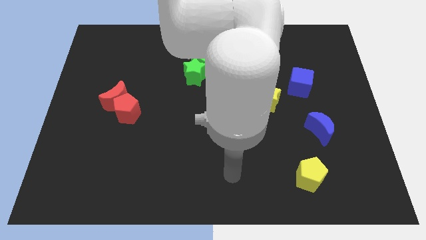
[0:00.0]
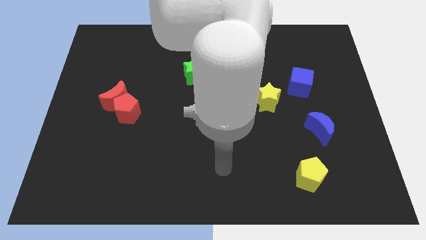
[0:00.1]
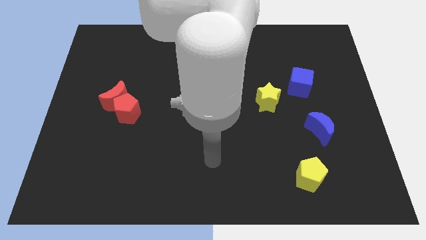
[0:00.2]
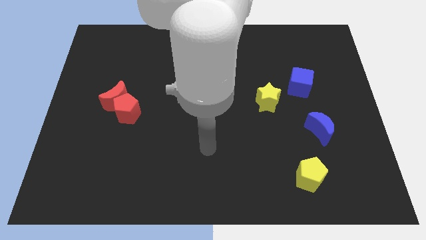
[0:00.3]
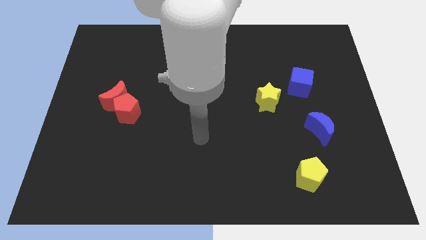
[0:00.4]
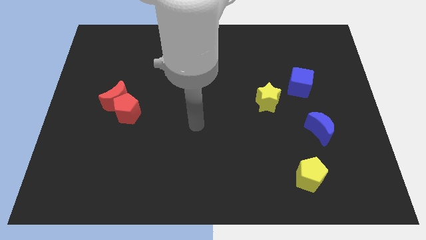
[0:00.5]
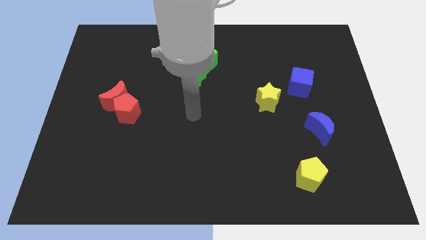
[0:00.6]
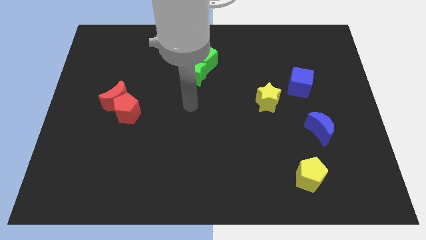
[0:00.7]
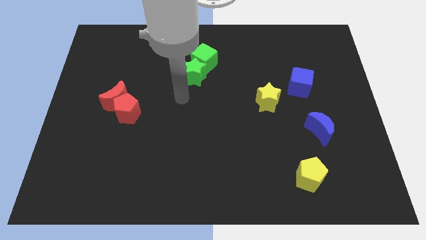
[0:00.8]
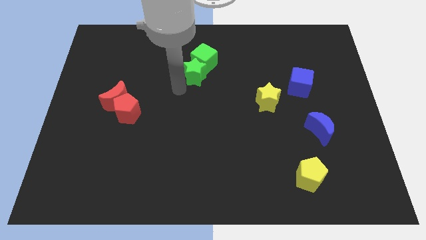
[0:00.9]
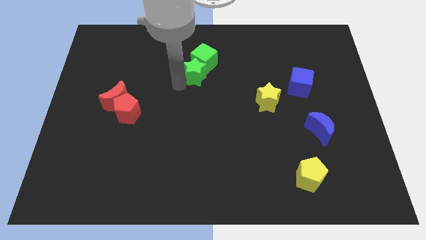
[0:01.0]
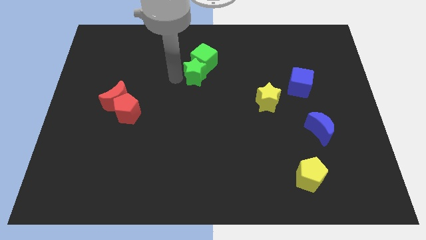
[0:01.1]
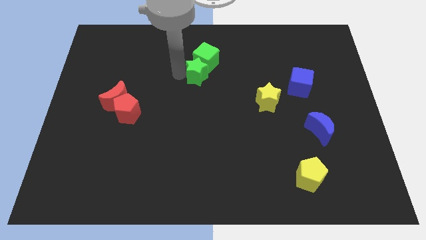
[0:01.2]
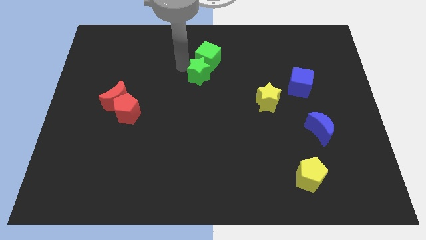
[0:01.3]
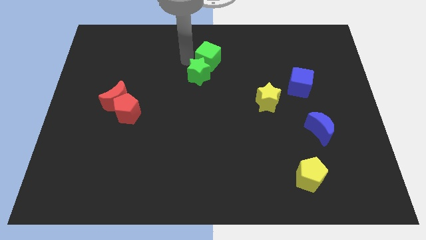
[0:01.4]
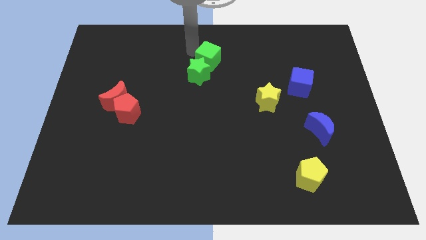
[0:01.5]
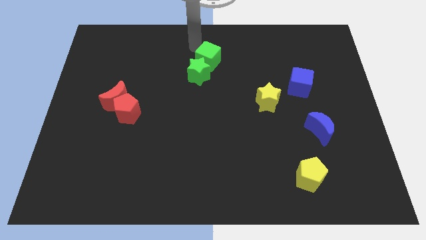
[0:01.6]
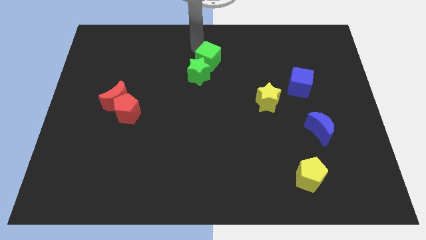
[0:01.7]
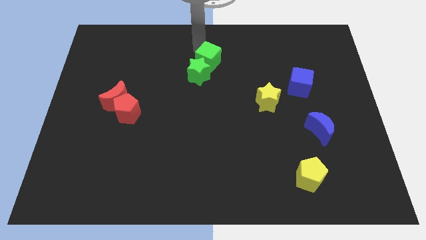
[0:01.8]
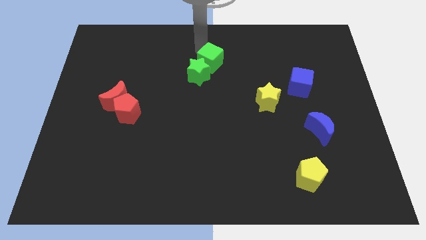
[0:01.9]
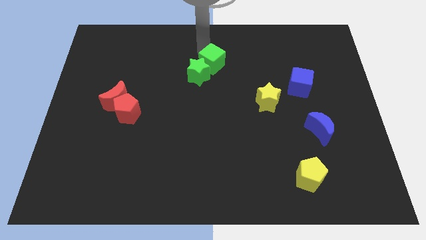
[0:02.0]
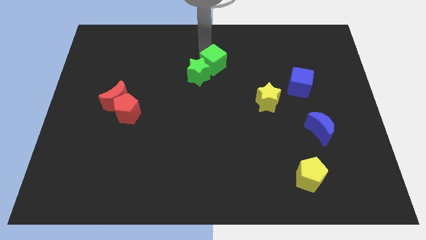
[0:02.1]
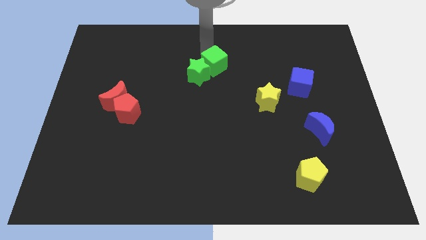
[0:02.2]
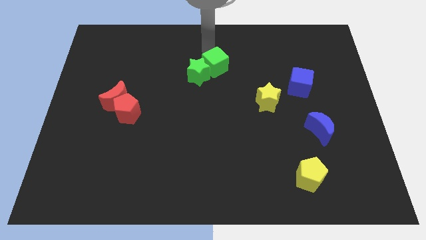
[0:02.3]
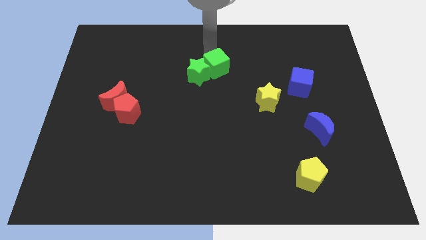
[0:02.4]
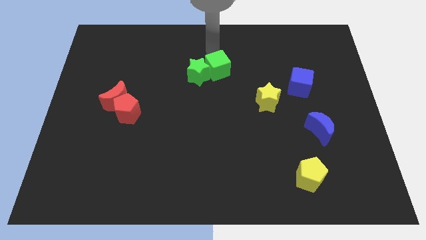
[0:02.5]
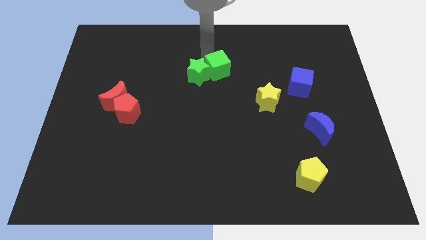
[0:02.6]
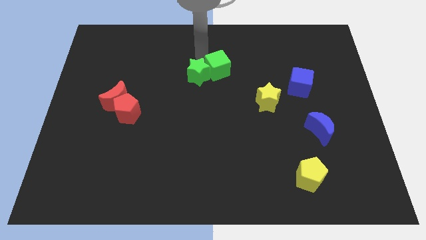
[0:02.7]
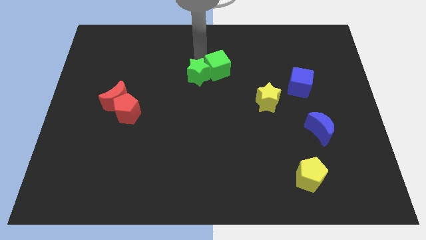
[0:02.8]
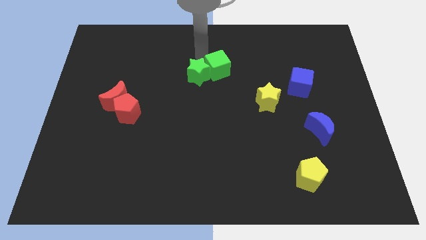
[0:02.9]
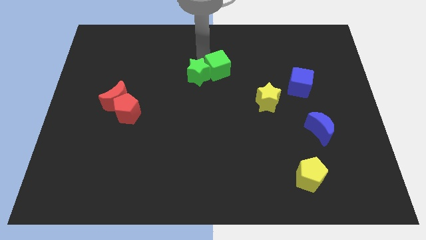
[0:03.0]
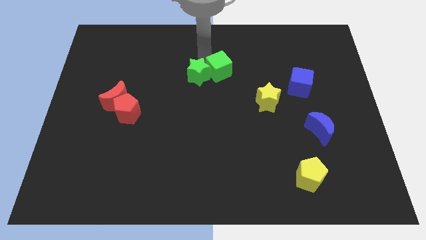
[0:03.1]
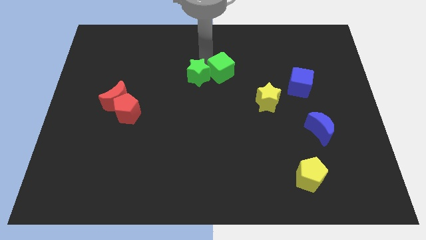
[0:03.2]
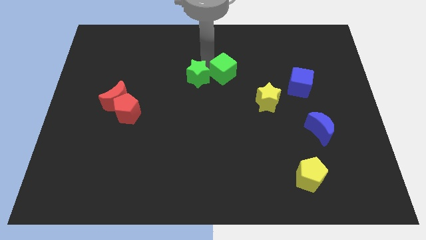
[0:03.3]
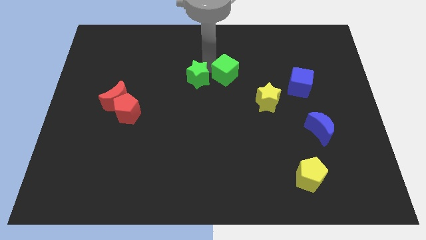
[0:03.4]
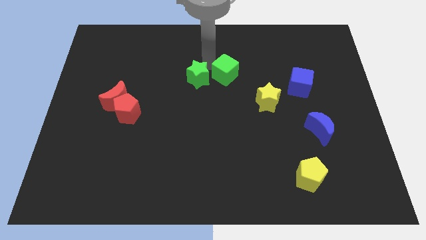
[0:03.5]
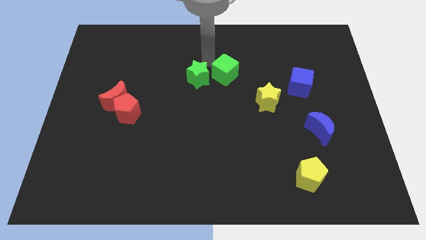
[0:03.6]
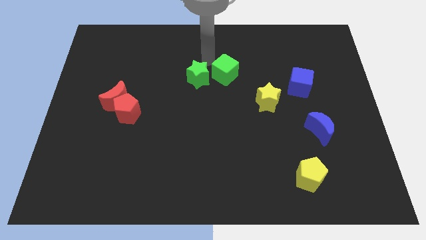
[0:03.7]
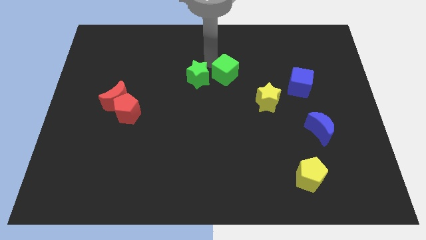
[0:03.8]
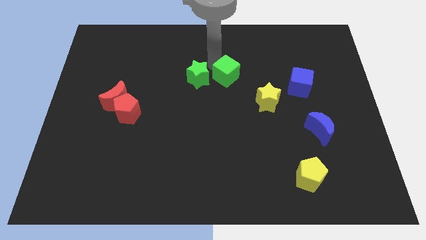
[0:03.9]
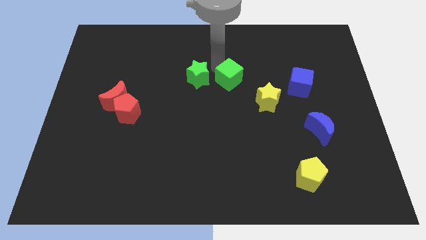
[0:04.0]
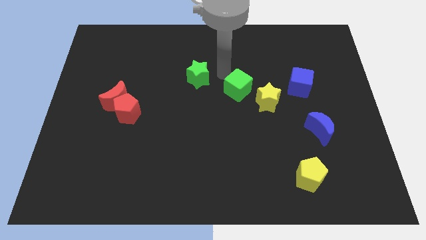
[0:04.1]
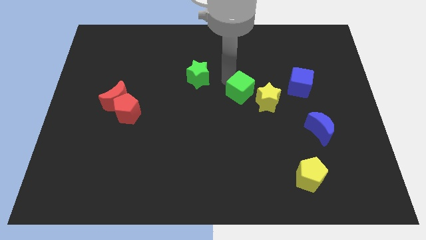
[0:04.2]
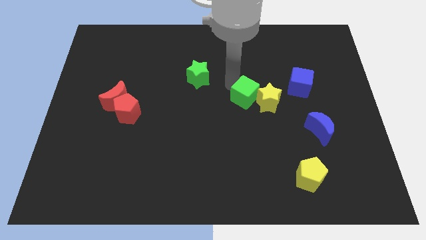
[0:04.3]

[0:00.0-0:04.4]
move the green cube towards the yellow star

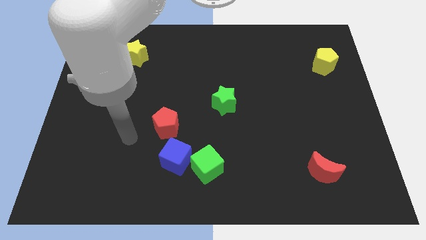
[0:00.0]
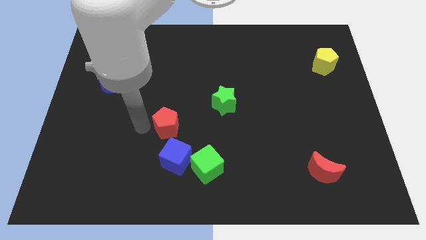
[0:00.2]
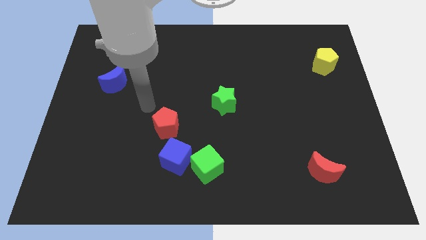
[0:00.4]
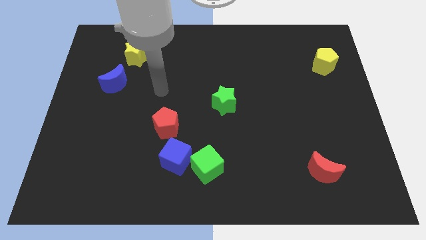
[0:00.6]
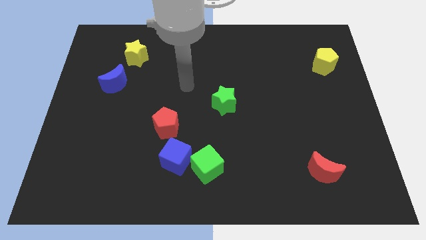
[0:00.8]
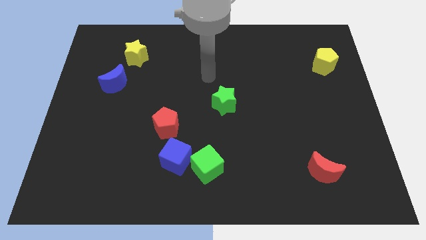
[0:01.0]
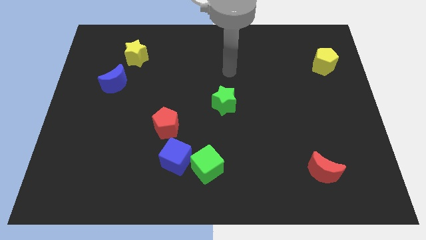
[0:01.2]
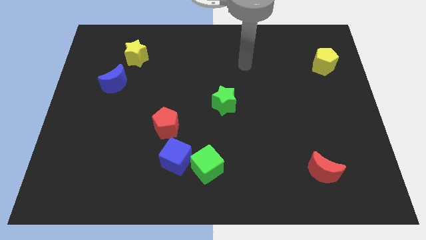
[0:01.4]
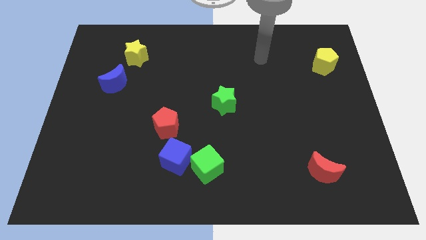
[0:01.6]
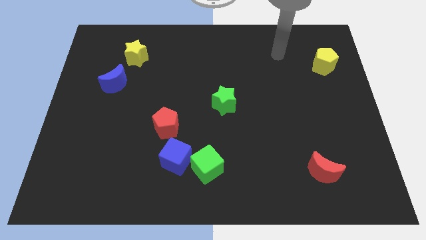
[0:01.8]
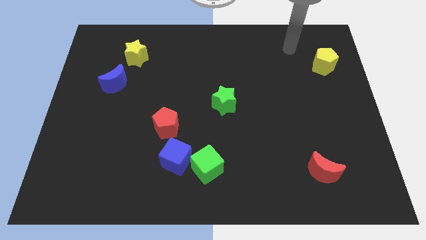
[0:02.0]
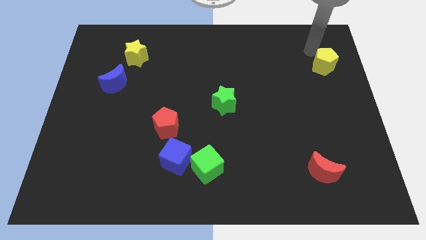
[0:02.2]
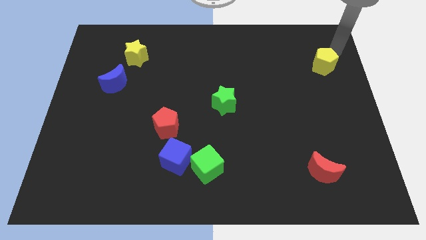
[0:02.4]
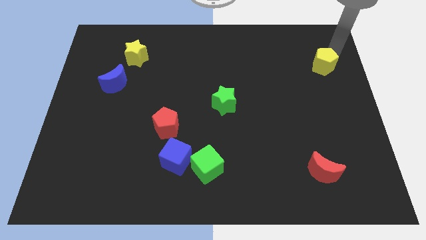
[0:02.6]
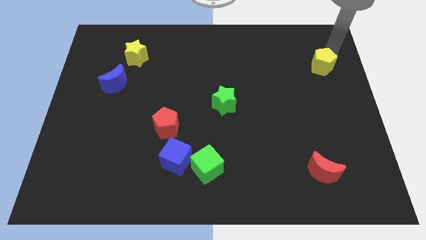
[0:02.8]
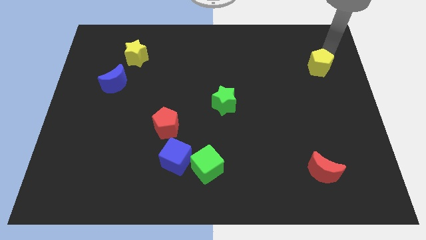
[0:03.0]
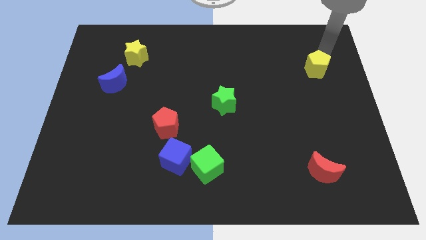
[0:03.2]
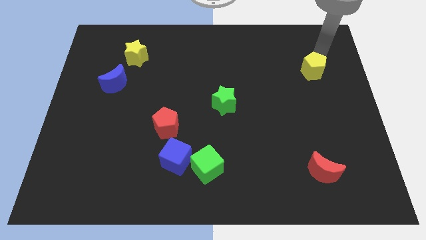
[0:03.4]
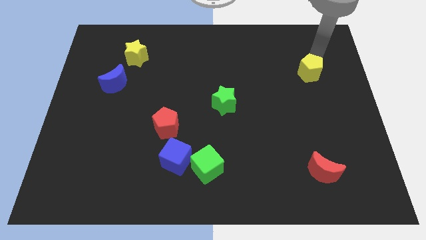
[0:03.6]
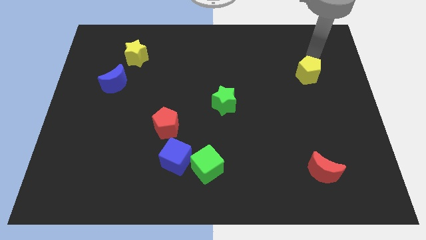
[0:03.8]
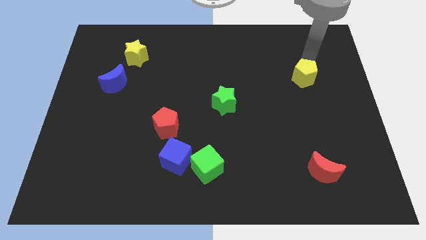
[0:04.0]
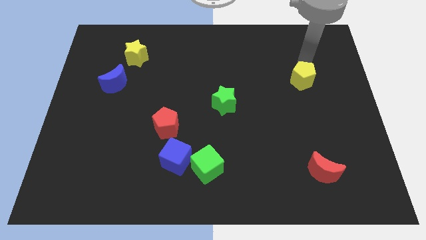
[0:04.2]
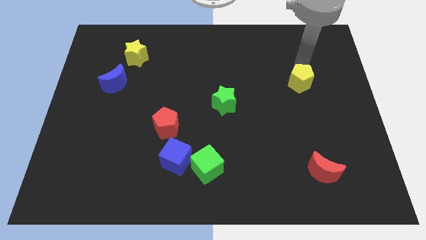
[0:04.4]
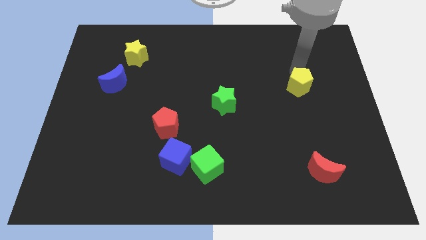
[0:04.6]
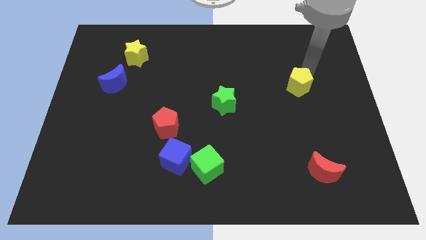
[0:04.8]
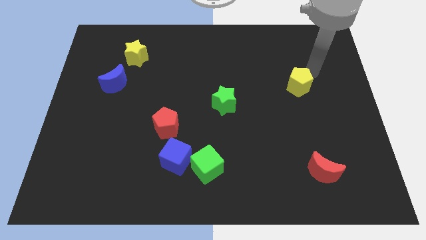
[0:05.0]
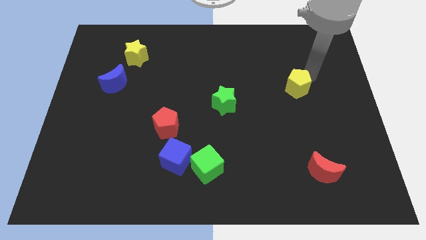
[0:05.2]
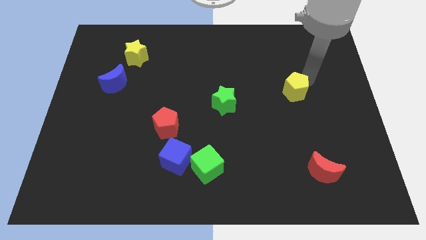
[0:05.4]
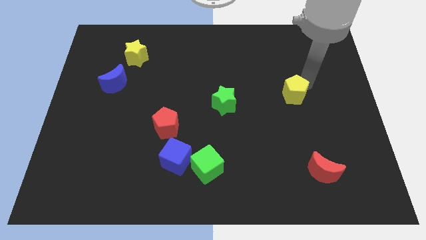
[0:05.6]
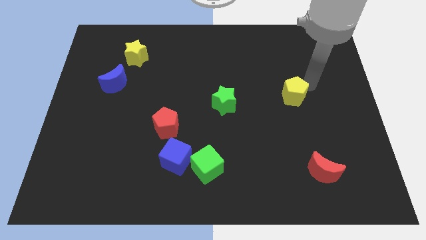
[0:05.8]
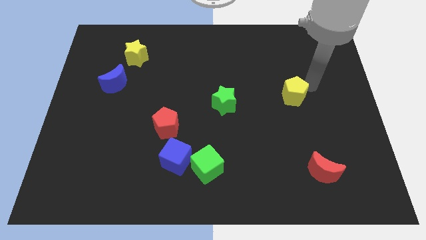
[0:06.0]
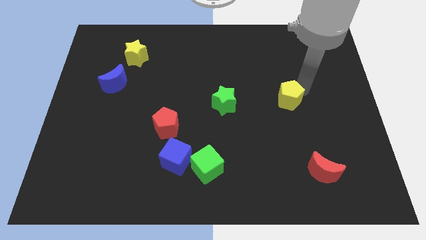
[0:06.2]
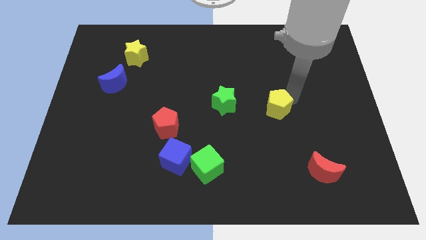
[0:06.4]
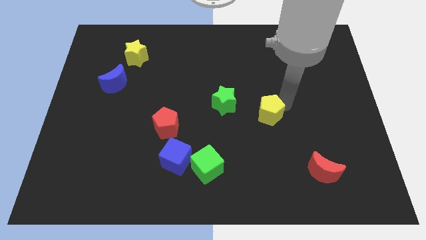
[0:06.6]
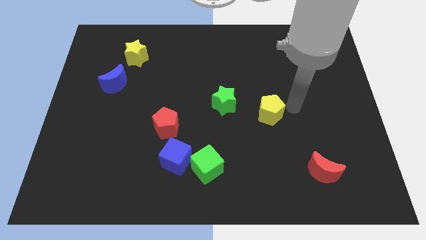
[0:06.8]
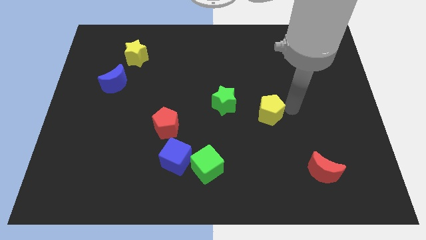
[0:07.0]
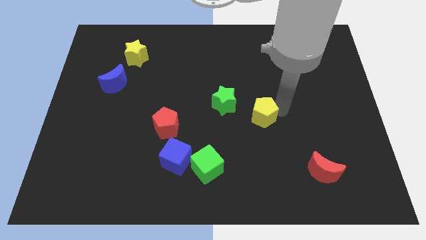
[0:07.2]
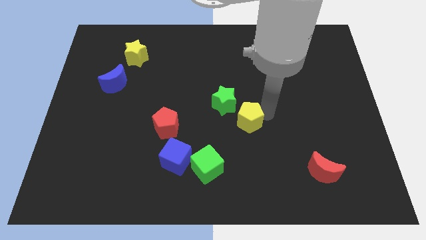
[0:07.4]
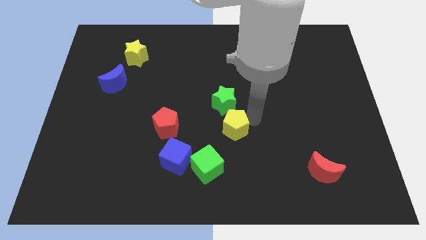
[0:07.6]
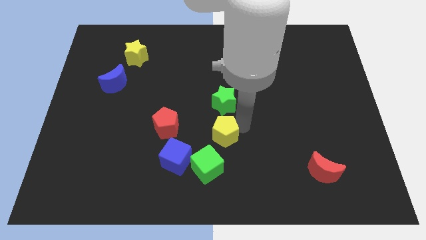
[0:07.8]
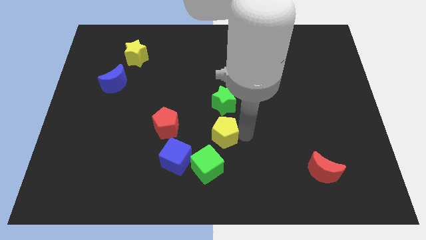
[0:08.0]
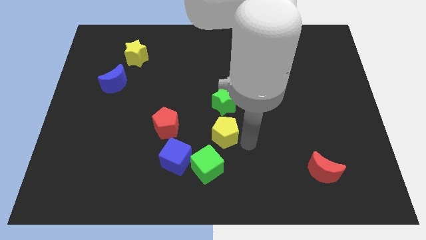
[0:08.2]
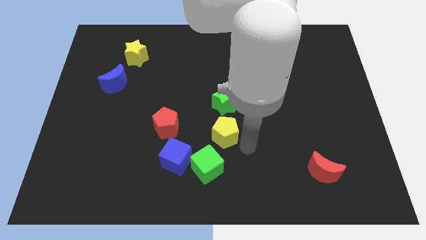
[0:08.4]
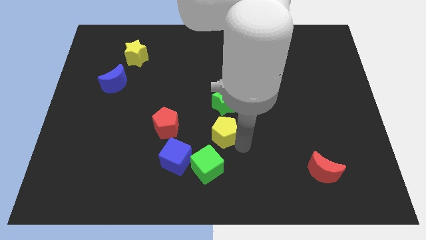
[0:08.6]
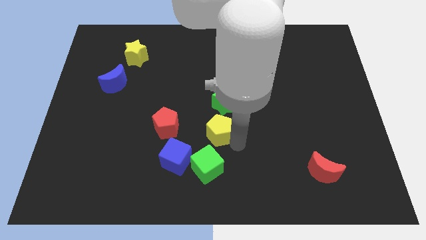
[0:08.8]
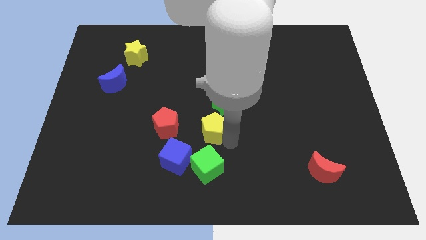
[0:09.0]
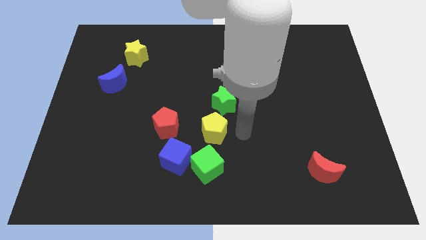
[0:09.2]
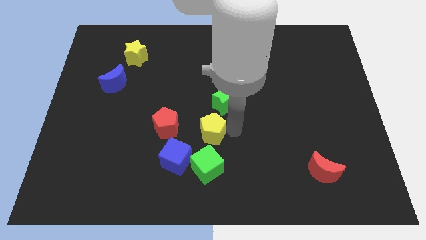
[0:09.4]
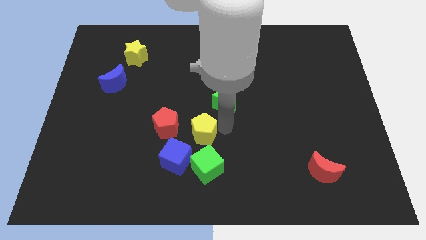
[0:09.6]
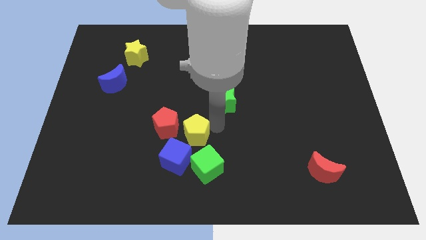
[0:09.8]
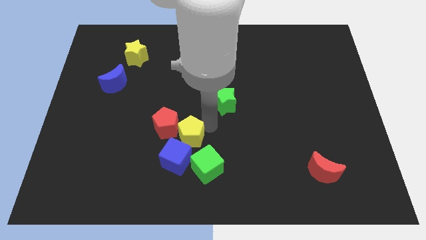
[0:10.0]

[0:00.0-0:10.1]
push the yellow pentagon close to the red pentagon
